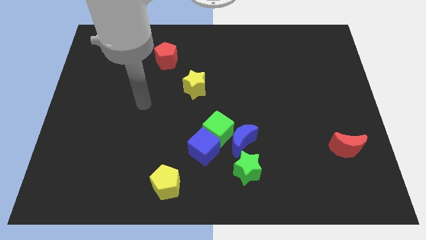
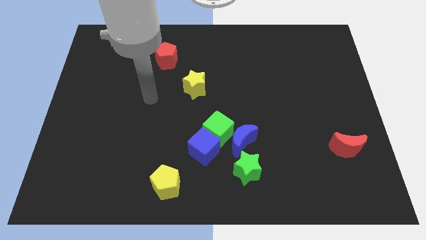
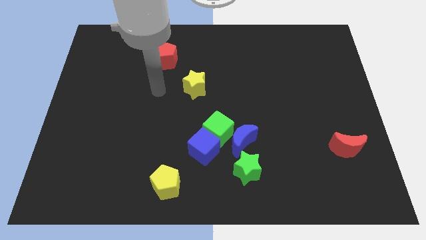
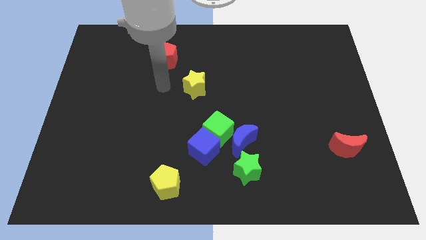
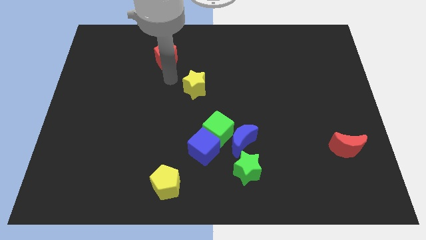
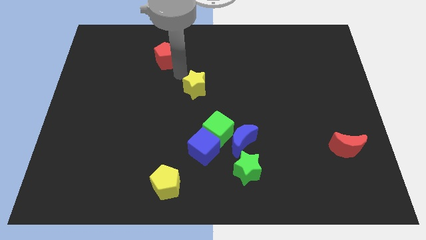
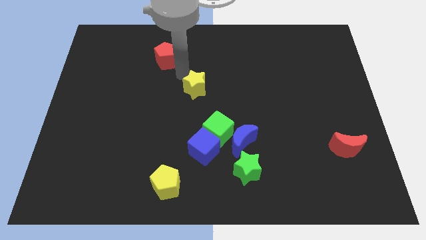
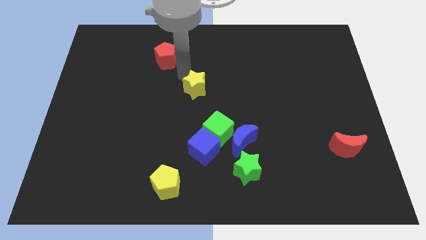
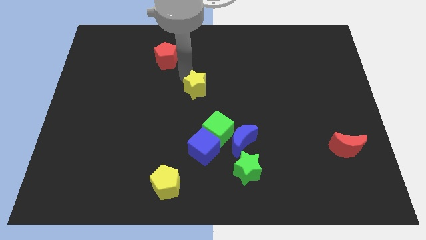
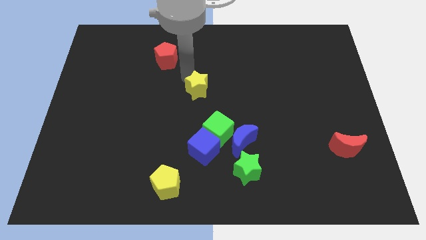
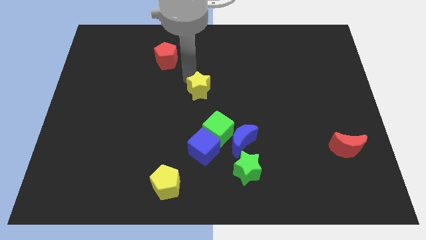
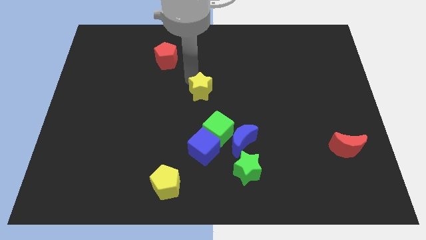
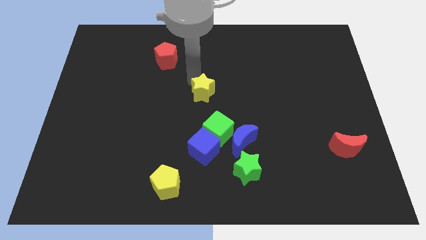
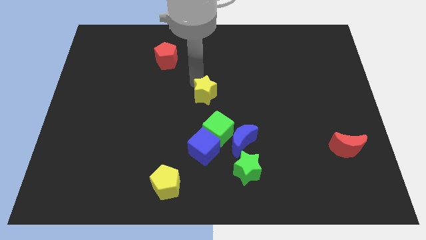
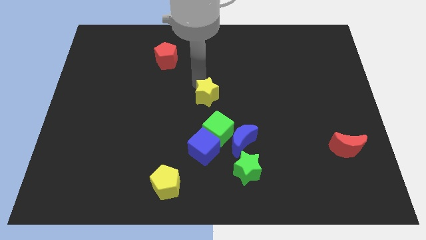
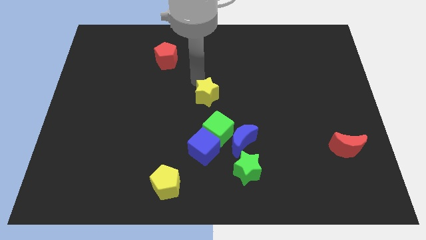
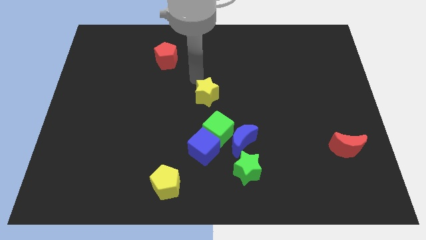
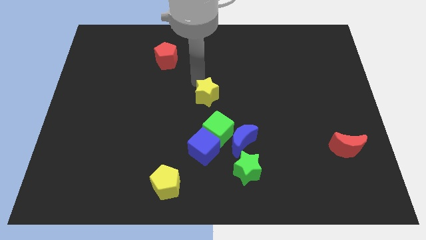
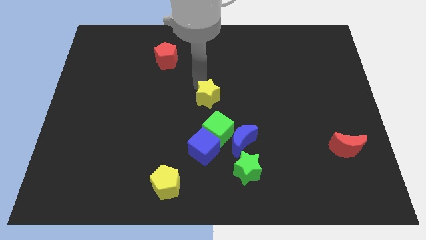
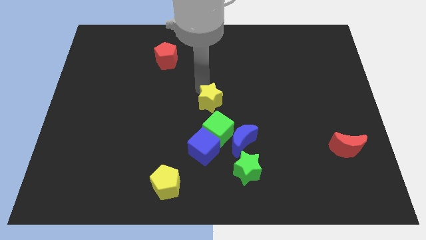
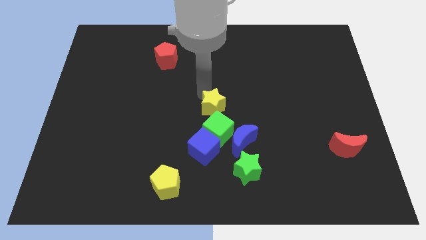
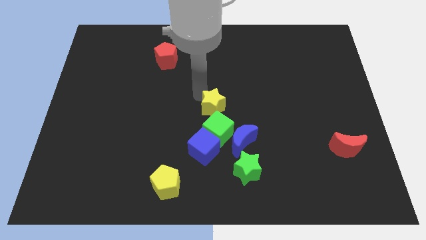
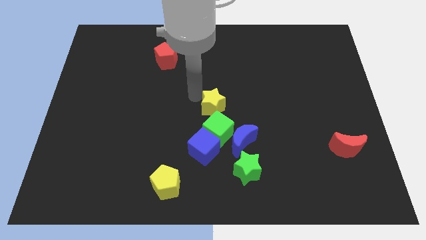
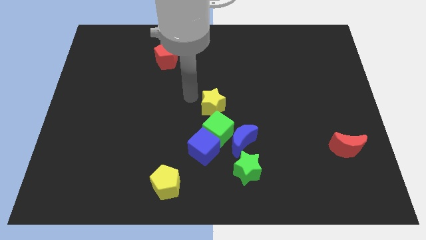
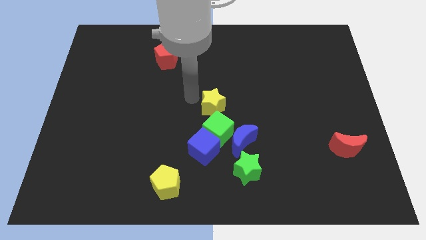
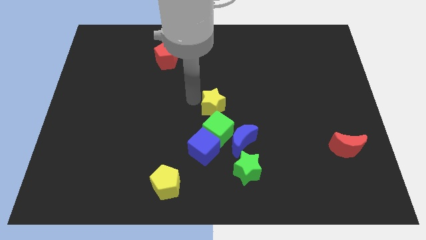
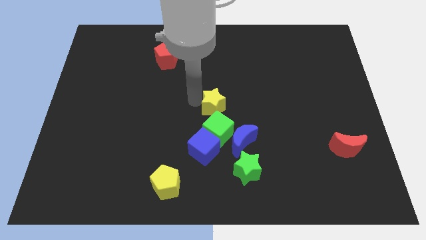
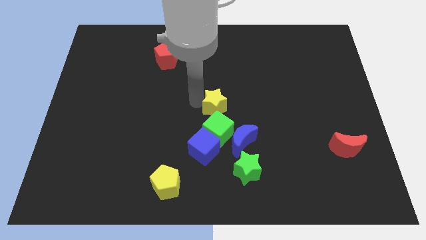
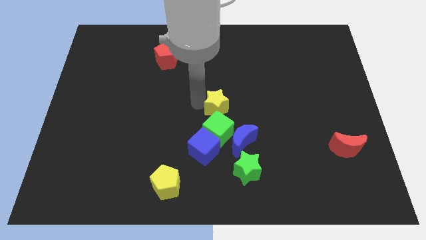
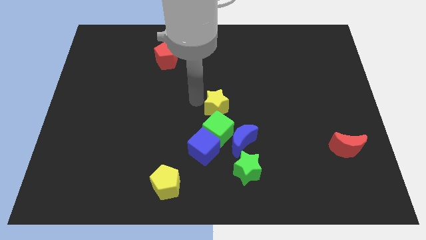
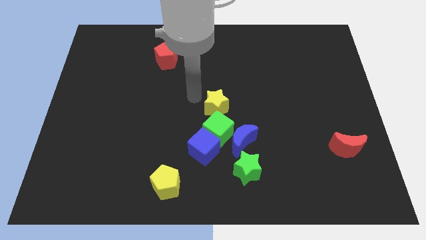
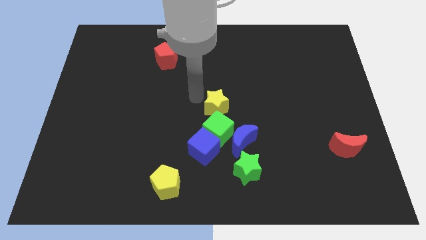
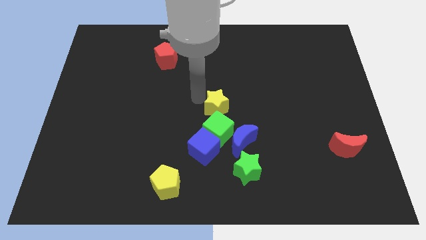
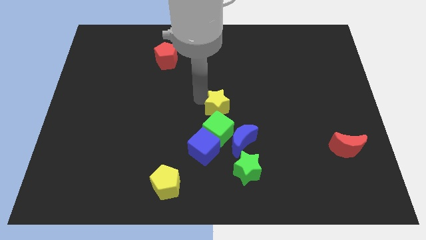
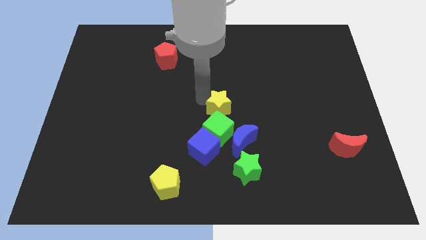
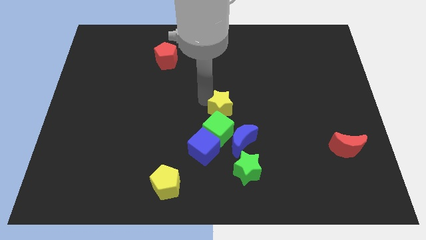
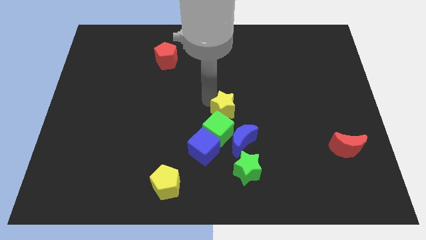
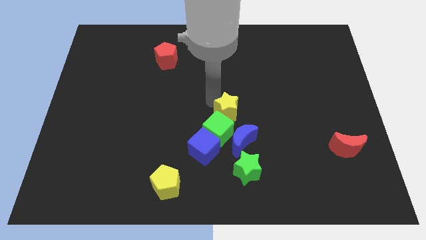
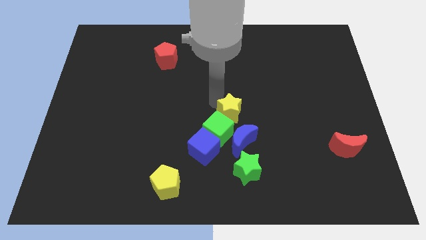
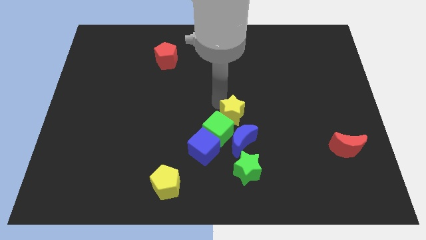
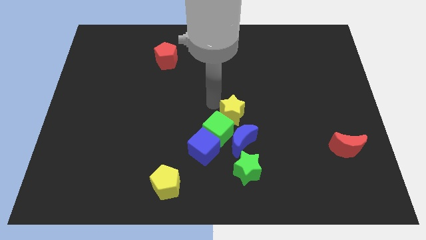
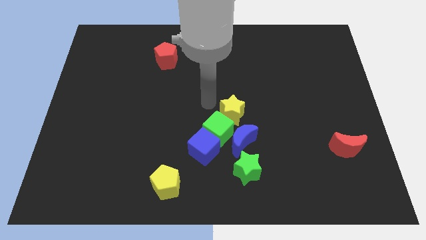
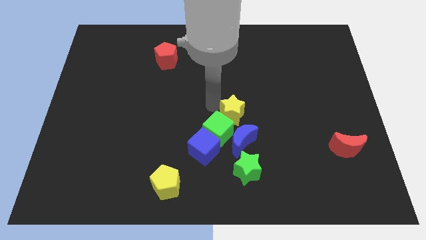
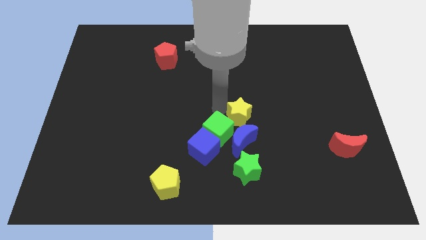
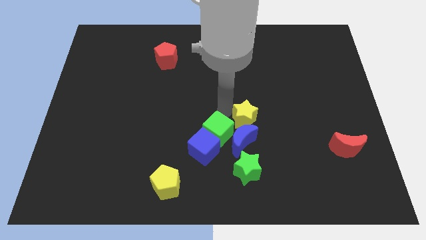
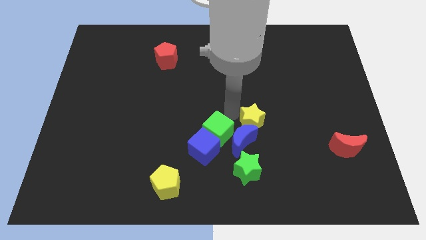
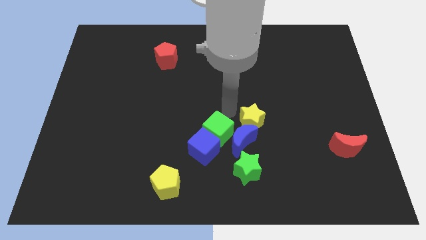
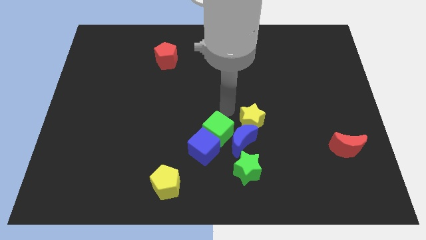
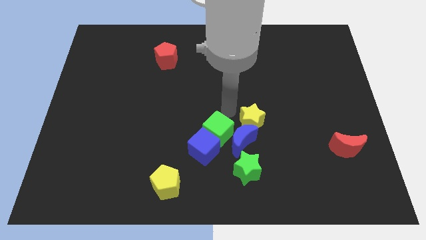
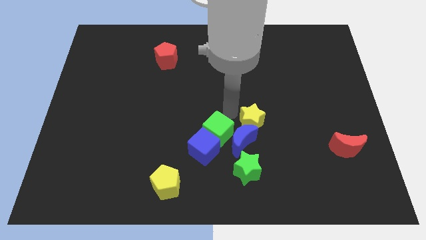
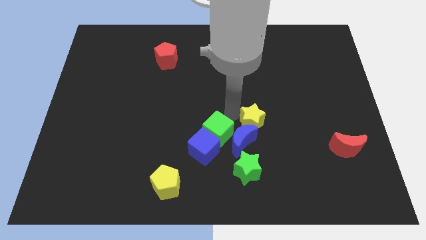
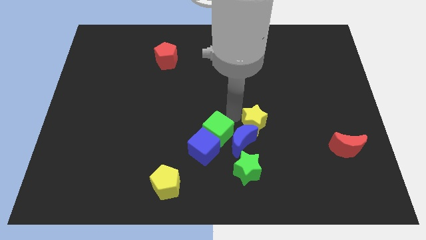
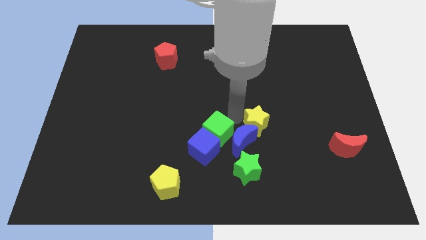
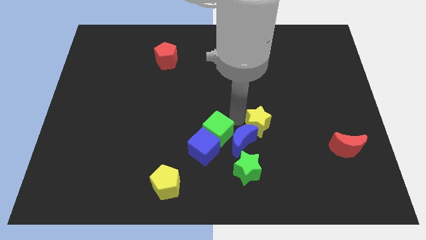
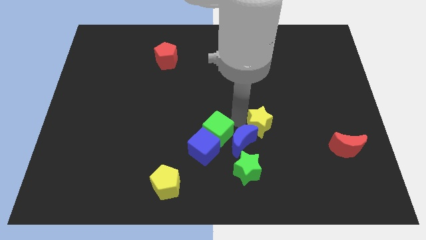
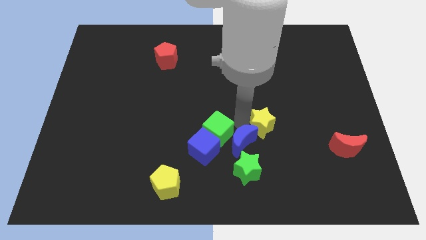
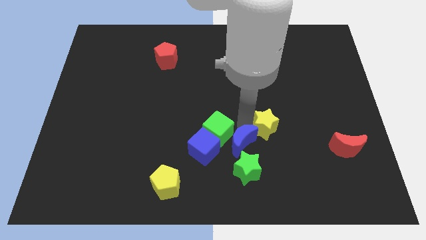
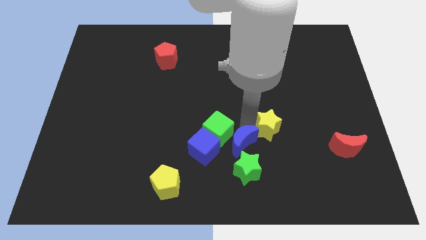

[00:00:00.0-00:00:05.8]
move the yellow star downwards and to the right

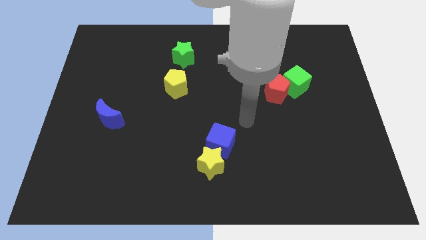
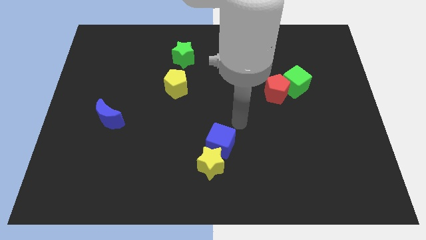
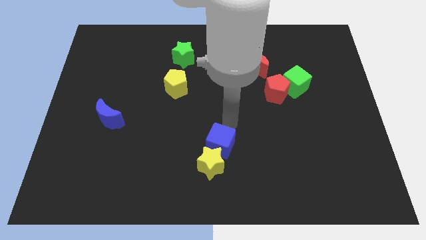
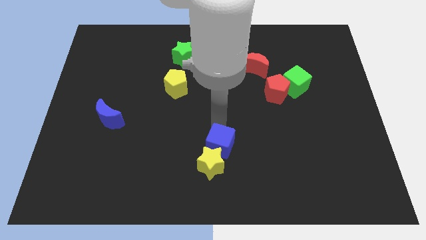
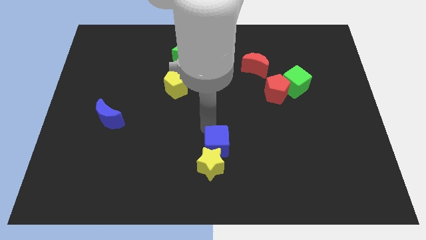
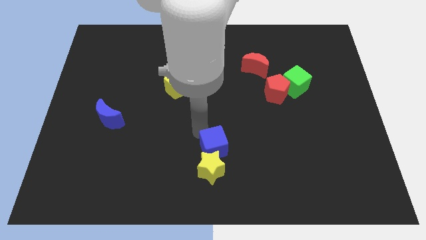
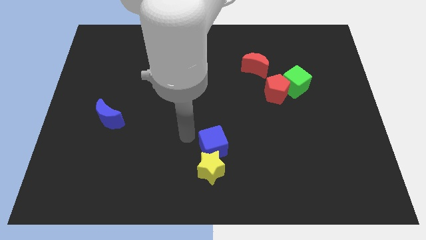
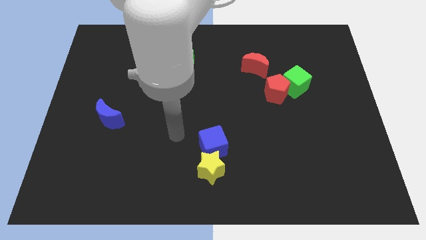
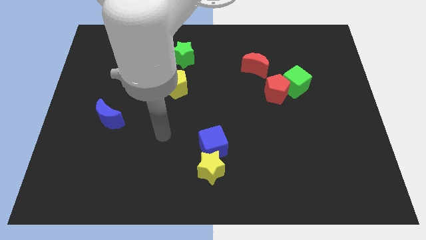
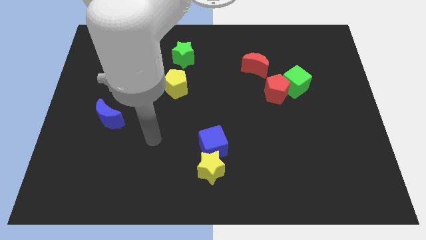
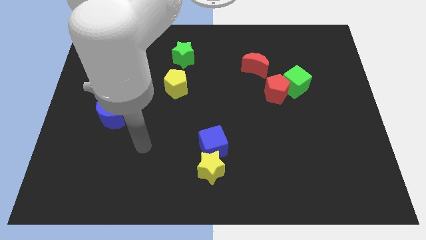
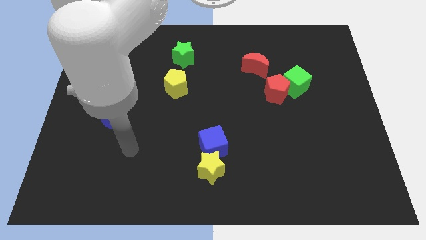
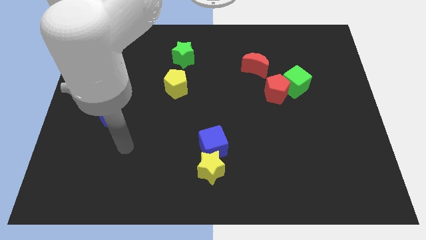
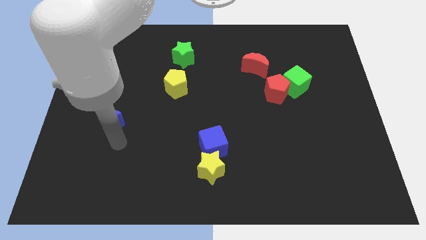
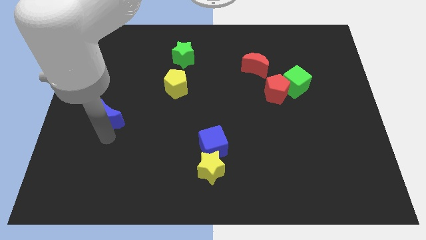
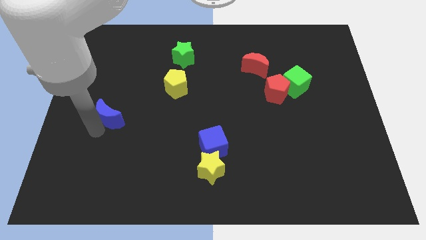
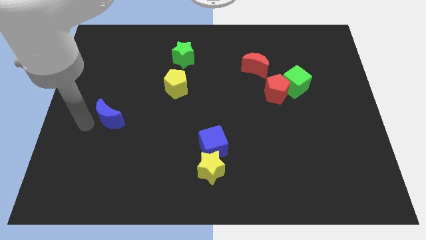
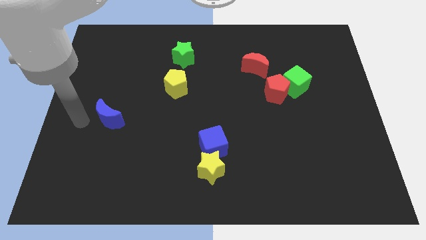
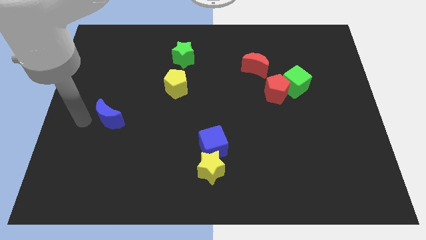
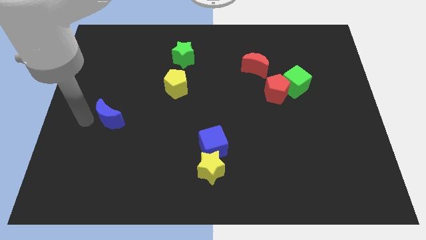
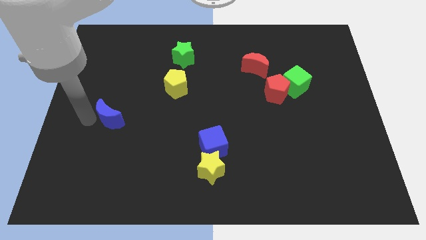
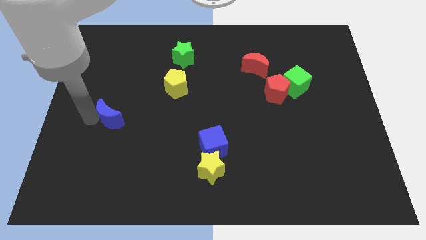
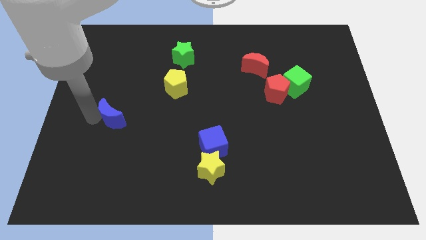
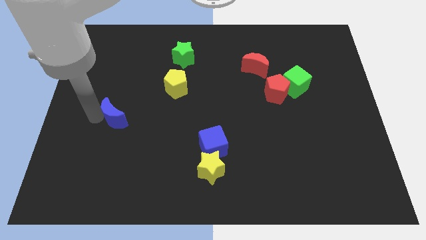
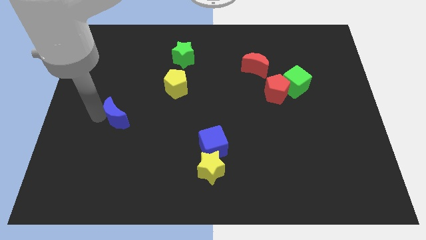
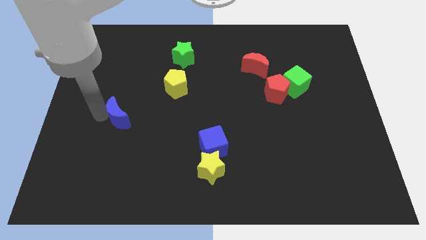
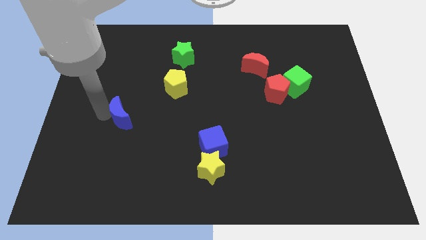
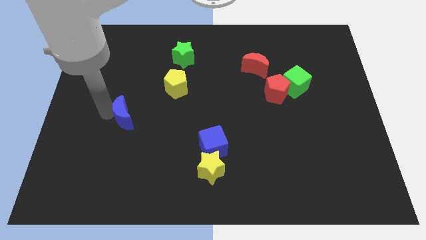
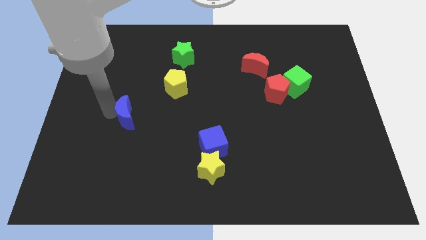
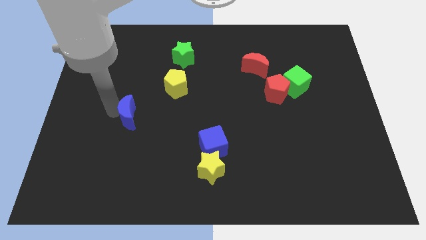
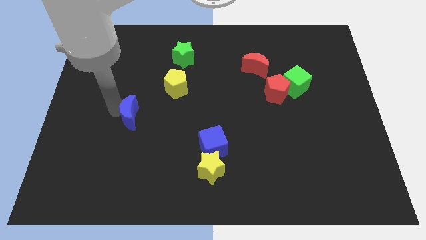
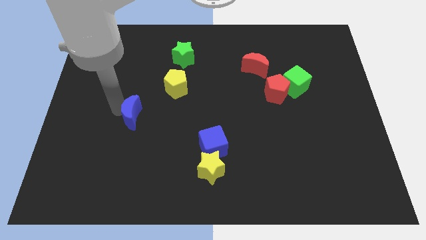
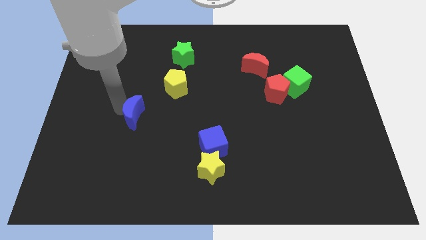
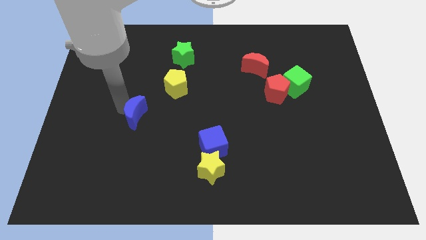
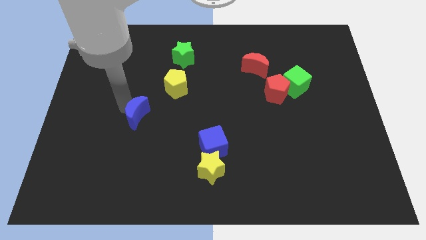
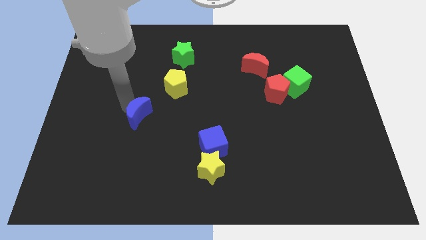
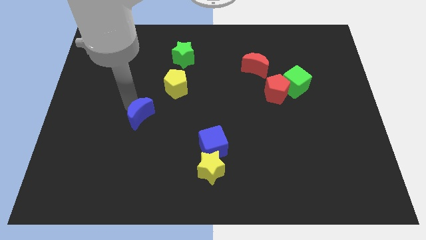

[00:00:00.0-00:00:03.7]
move the blue moon to the right slightly
